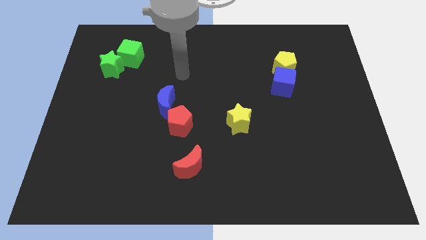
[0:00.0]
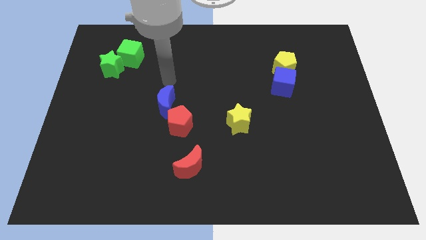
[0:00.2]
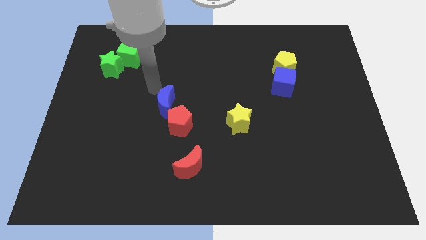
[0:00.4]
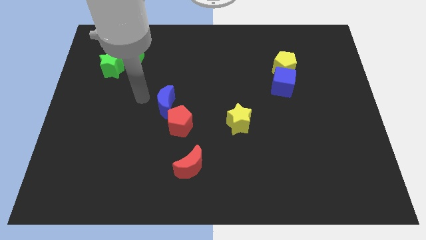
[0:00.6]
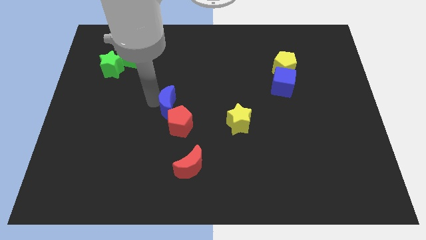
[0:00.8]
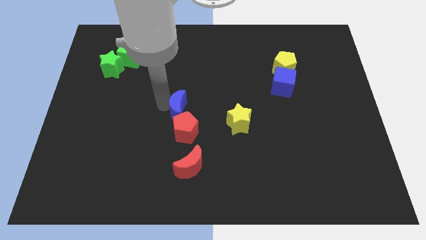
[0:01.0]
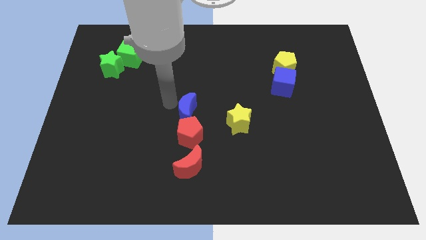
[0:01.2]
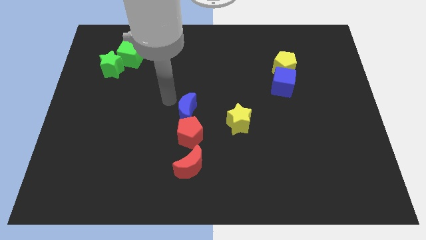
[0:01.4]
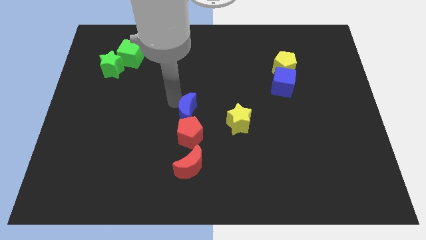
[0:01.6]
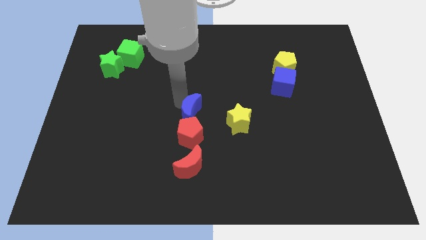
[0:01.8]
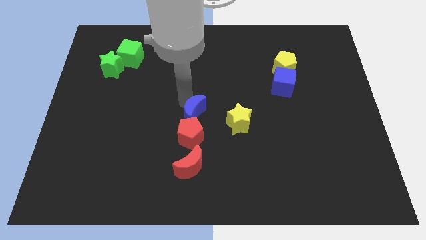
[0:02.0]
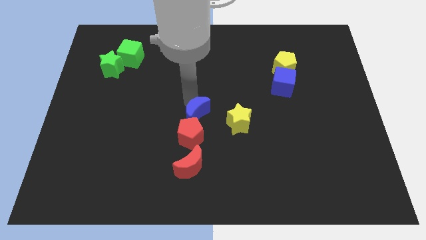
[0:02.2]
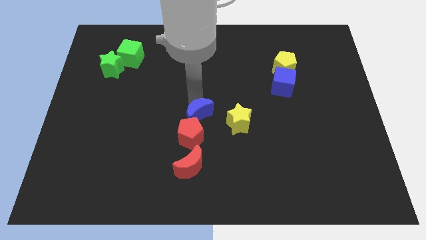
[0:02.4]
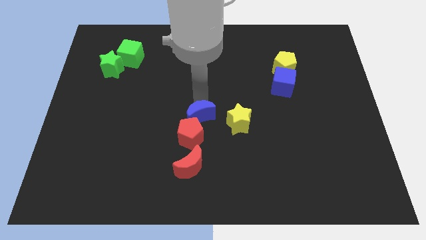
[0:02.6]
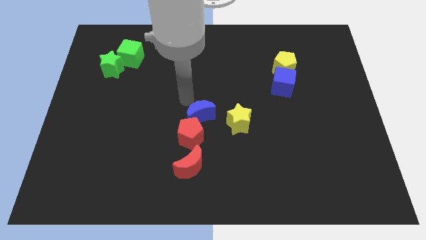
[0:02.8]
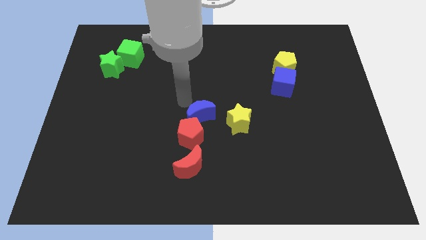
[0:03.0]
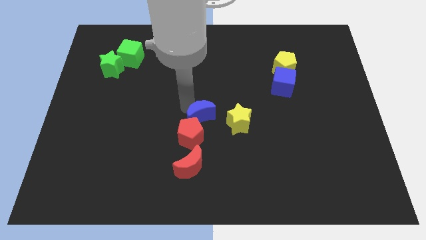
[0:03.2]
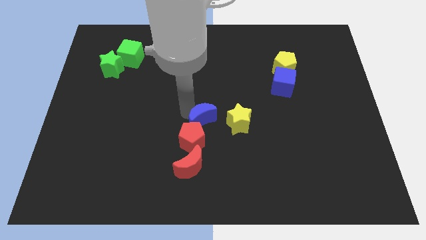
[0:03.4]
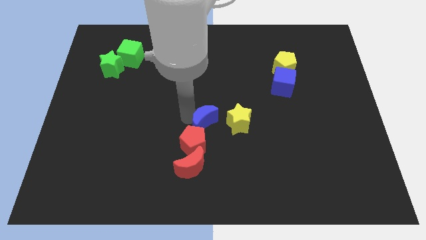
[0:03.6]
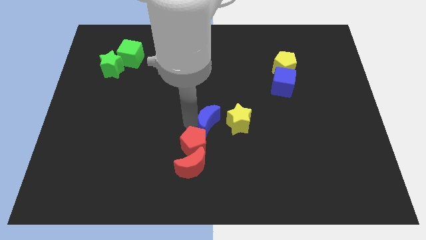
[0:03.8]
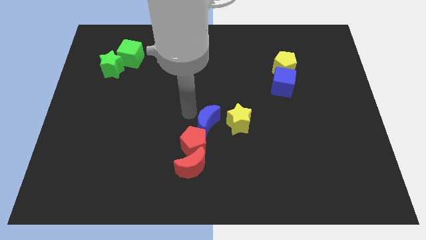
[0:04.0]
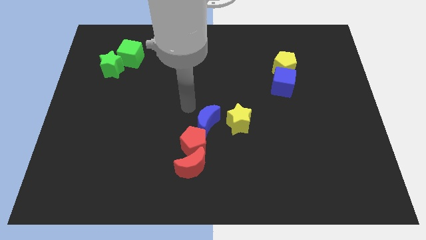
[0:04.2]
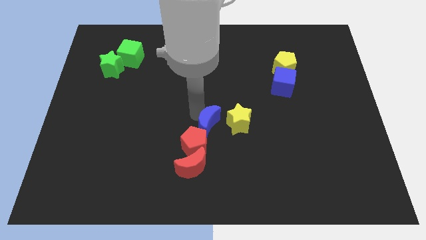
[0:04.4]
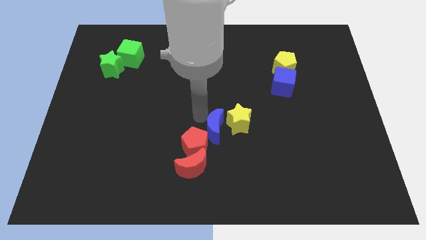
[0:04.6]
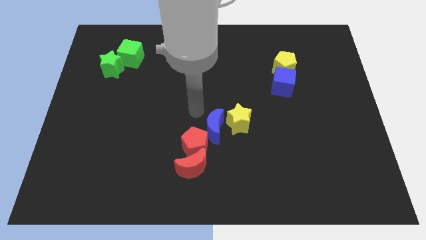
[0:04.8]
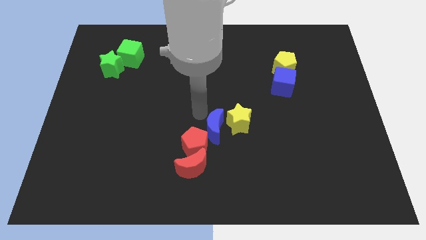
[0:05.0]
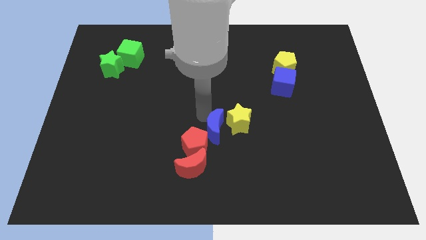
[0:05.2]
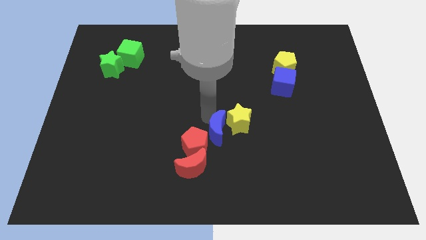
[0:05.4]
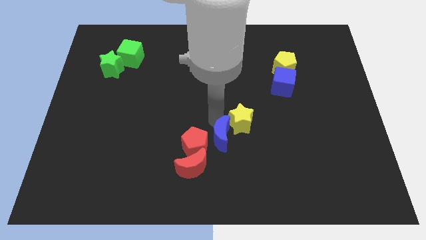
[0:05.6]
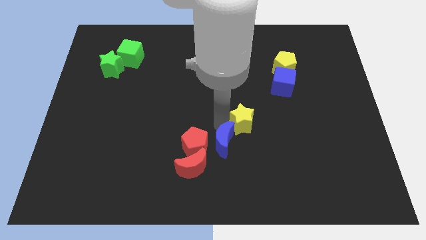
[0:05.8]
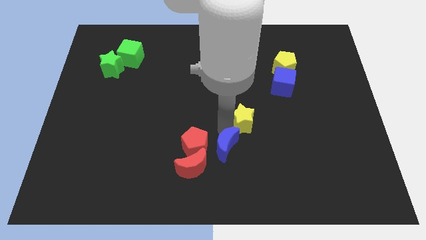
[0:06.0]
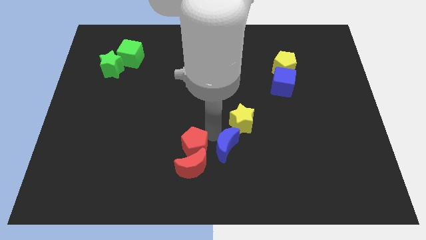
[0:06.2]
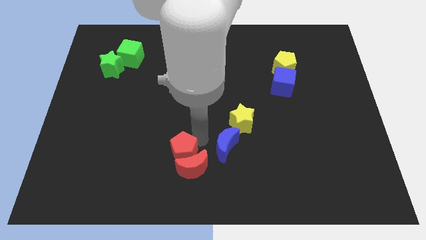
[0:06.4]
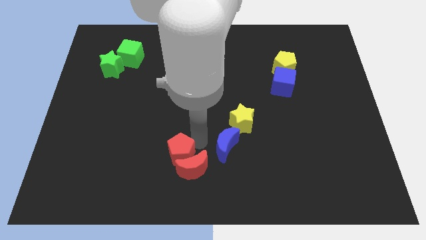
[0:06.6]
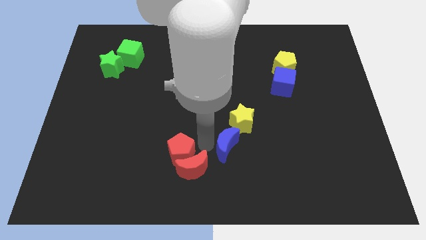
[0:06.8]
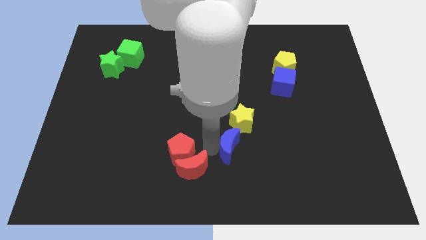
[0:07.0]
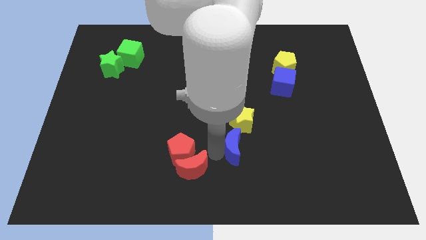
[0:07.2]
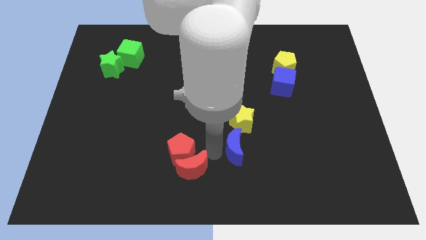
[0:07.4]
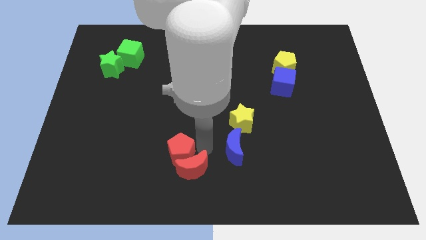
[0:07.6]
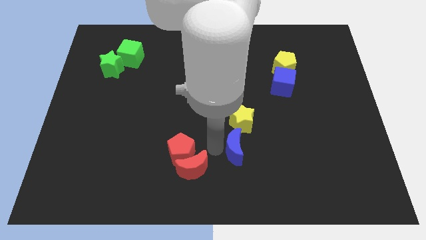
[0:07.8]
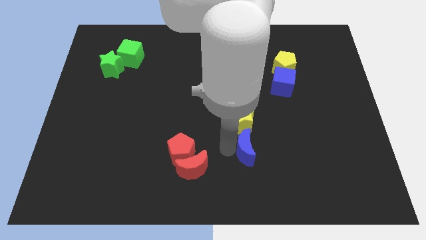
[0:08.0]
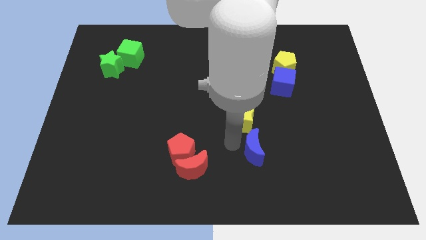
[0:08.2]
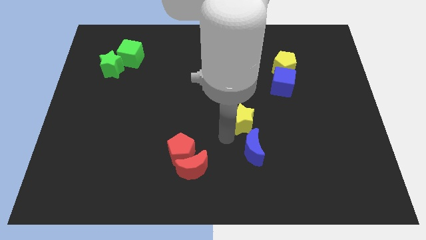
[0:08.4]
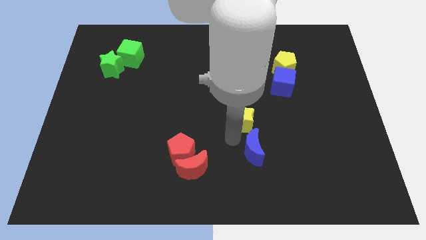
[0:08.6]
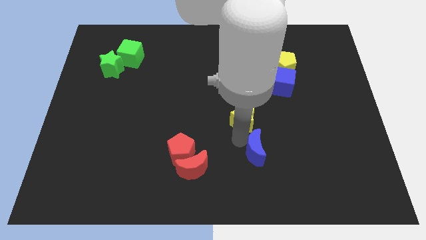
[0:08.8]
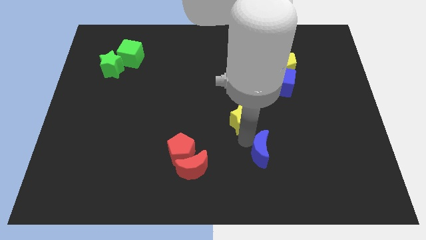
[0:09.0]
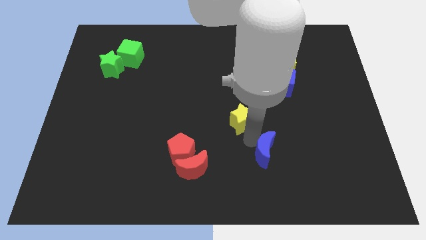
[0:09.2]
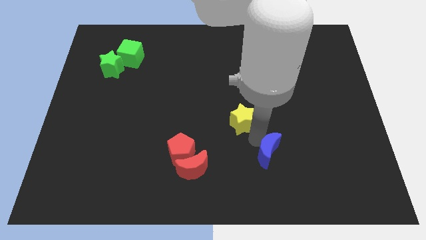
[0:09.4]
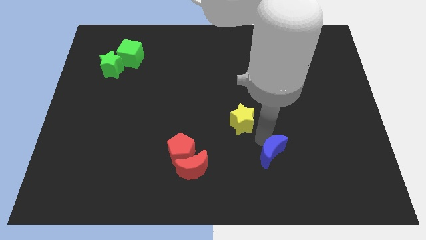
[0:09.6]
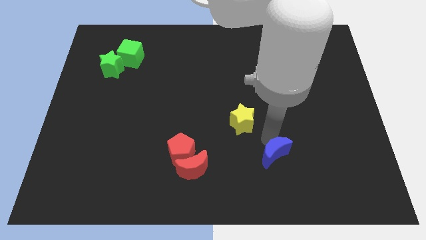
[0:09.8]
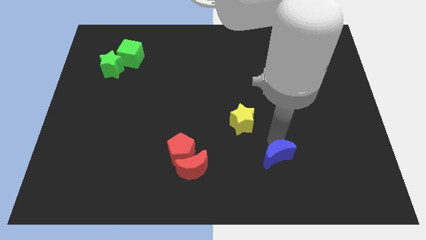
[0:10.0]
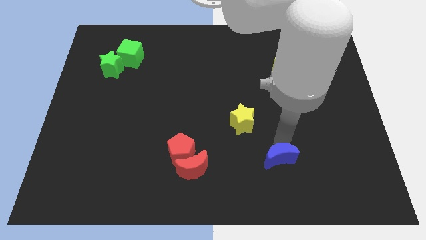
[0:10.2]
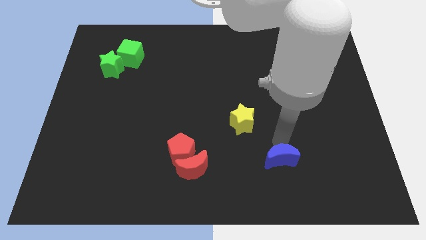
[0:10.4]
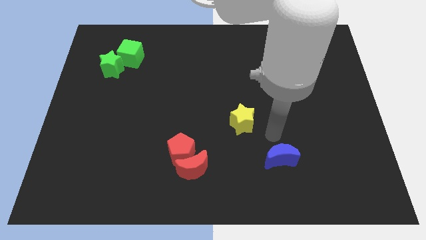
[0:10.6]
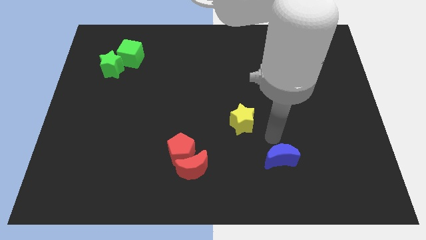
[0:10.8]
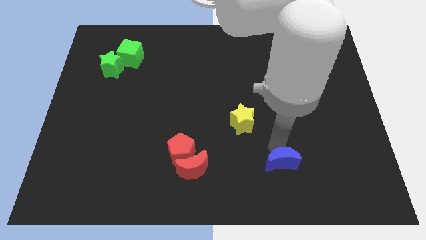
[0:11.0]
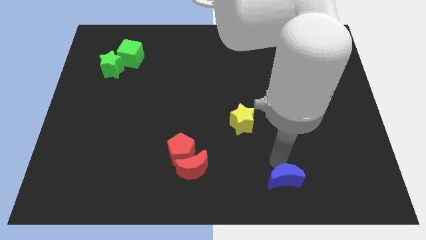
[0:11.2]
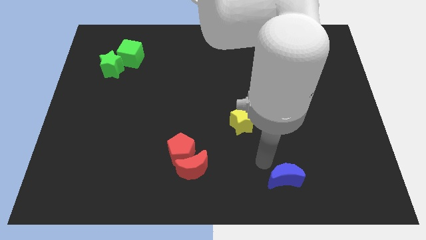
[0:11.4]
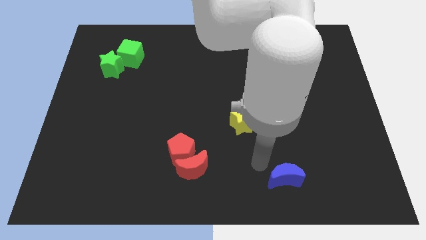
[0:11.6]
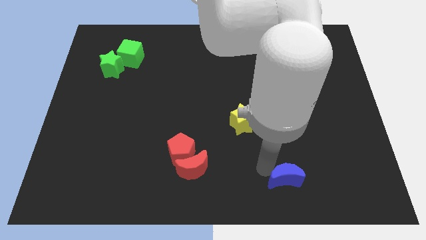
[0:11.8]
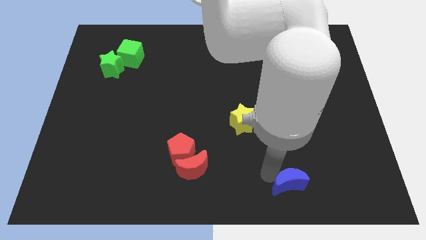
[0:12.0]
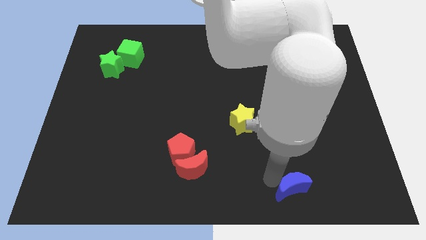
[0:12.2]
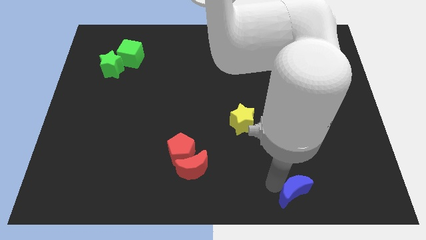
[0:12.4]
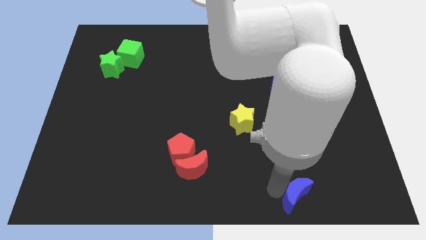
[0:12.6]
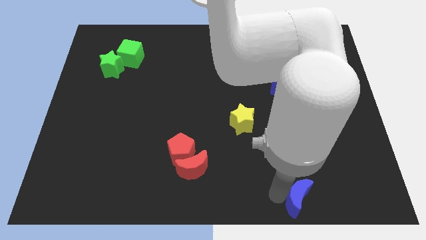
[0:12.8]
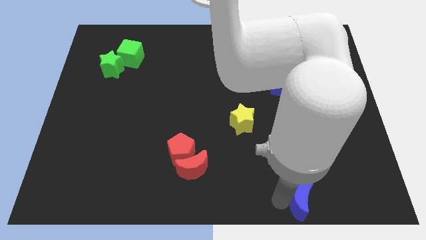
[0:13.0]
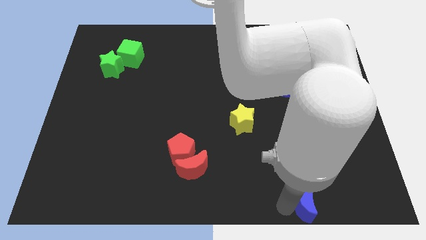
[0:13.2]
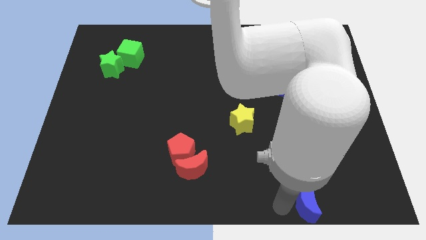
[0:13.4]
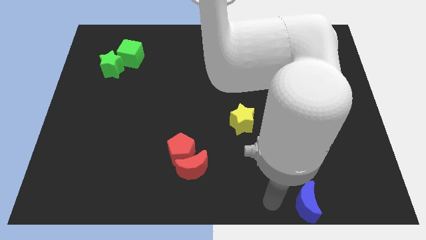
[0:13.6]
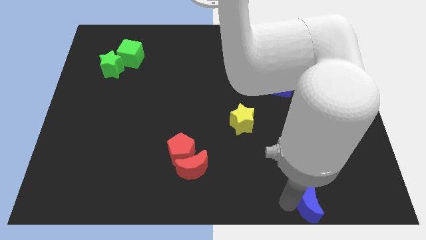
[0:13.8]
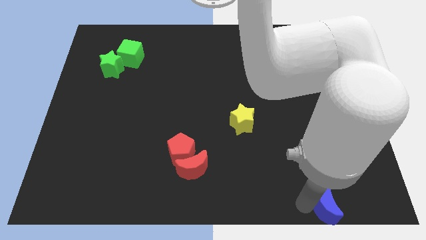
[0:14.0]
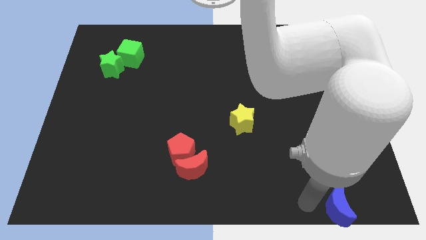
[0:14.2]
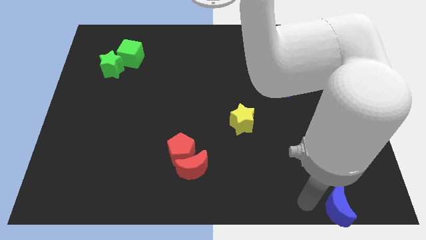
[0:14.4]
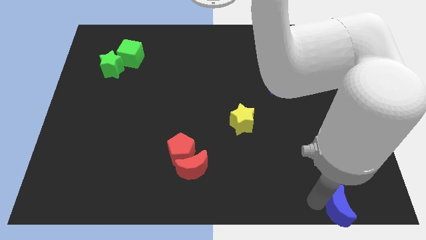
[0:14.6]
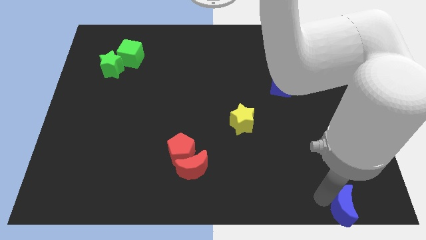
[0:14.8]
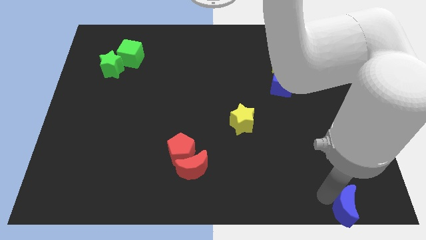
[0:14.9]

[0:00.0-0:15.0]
move the blue moon to the bottom right corner
